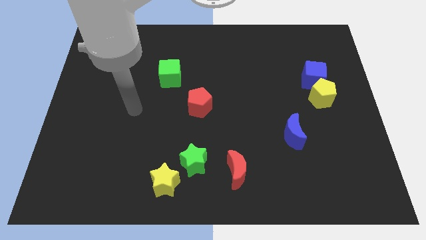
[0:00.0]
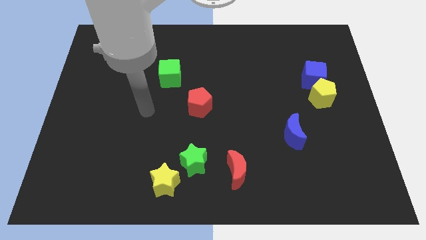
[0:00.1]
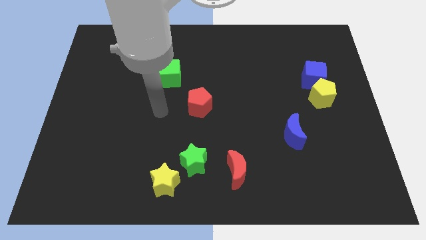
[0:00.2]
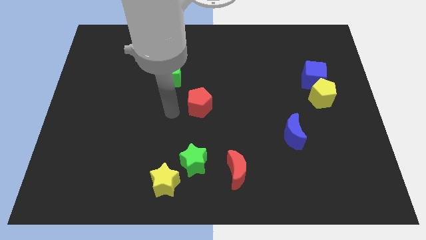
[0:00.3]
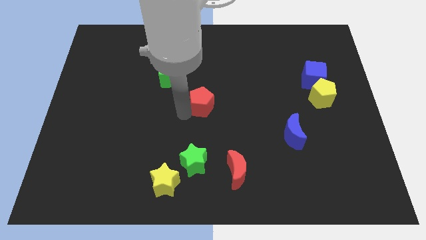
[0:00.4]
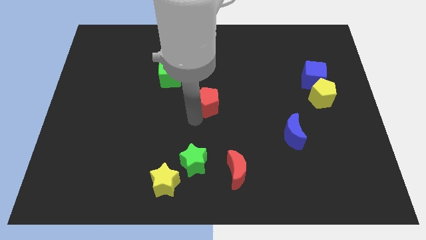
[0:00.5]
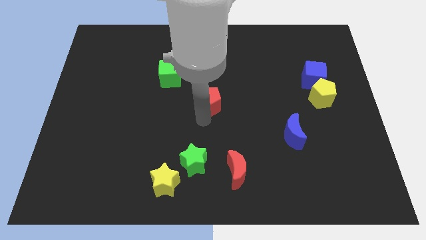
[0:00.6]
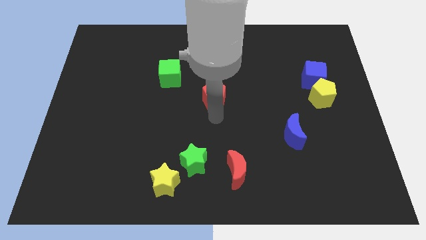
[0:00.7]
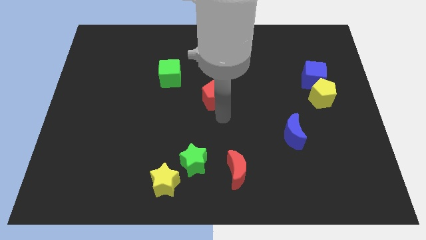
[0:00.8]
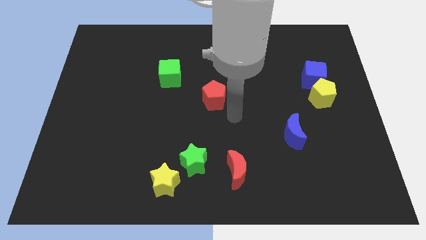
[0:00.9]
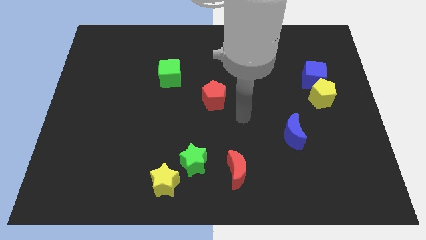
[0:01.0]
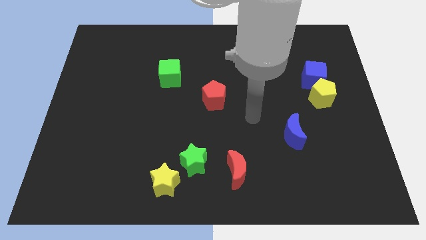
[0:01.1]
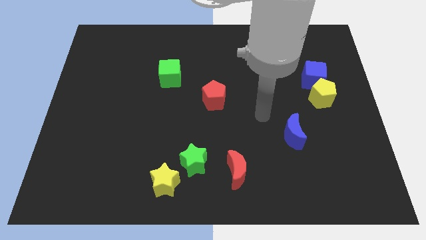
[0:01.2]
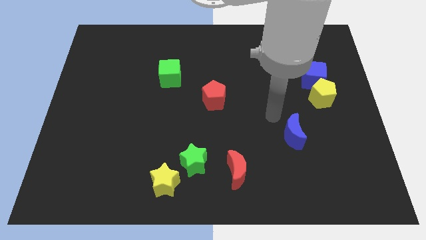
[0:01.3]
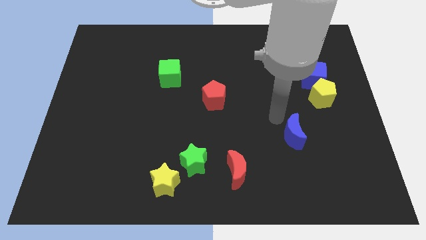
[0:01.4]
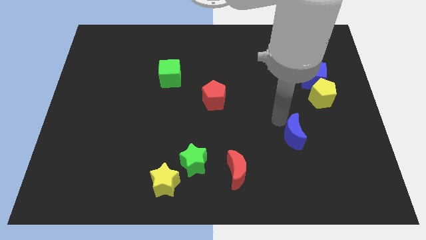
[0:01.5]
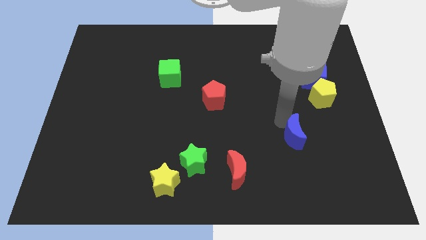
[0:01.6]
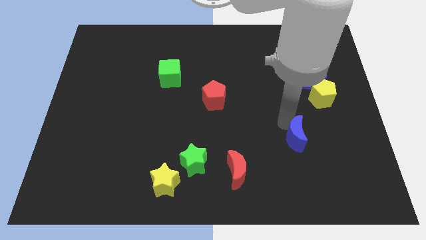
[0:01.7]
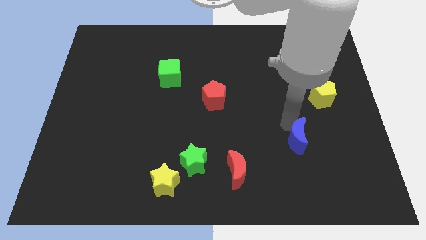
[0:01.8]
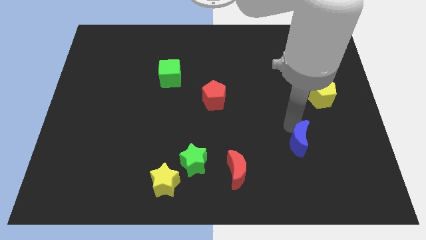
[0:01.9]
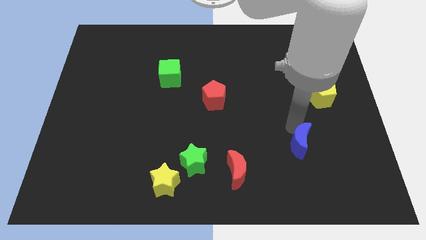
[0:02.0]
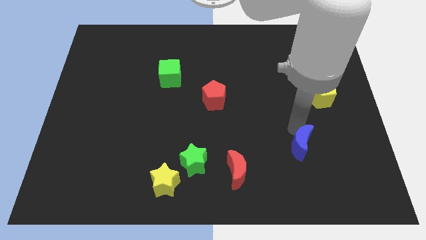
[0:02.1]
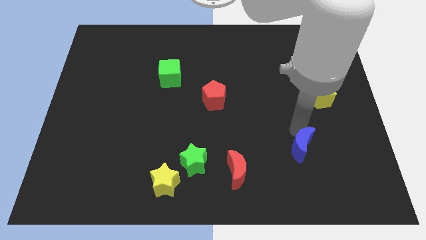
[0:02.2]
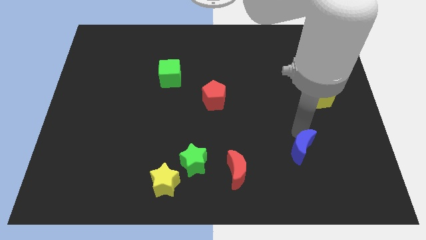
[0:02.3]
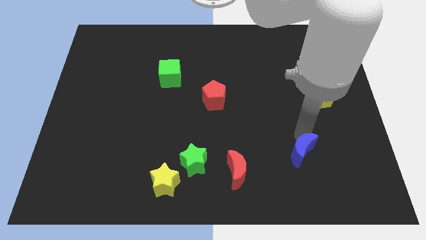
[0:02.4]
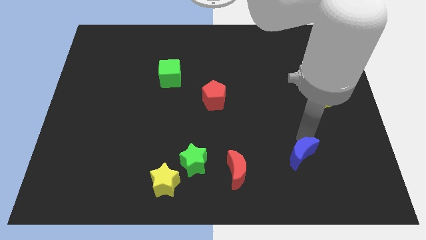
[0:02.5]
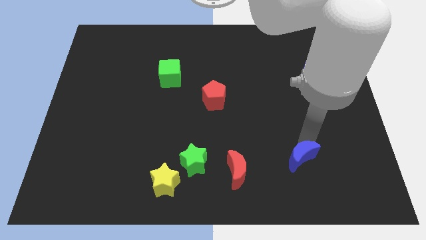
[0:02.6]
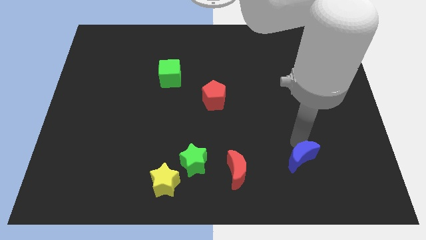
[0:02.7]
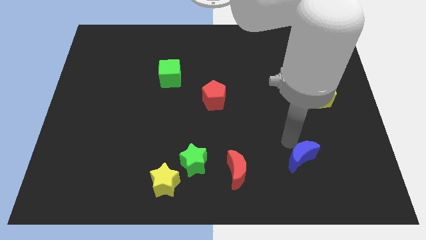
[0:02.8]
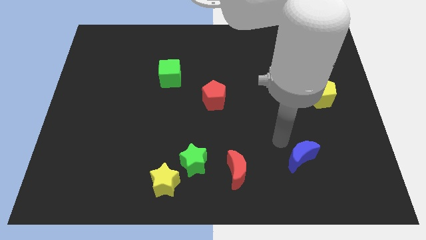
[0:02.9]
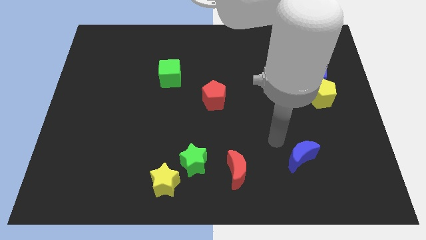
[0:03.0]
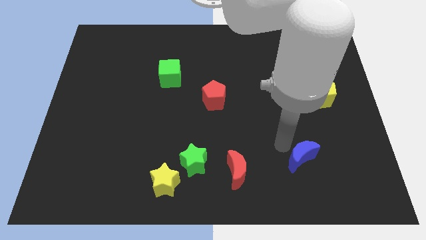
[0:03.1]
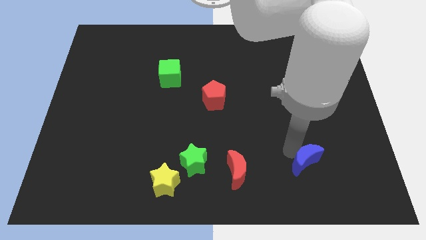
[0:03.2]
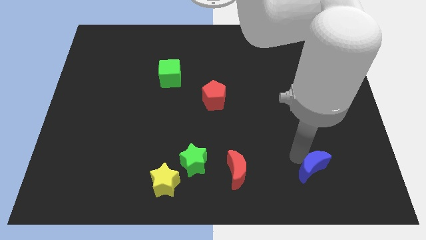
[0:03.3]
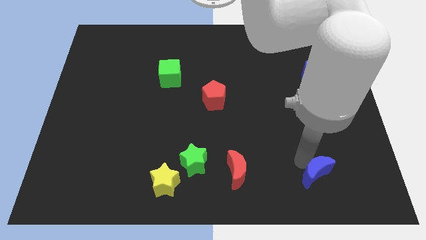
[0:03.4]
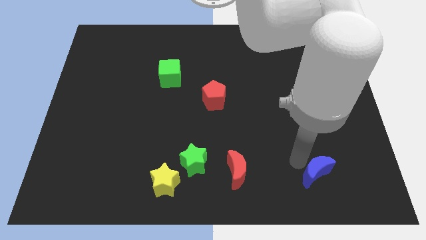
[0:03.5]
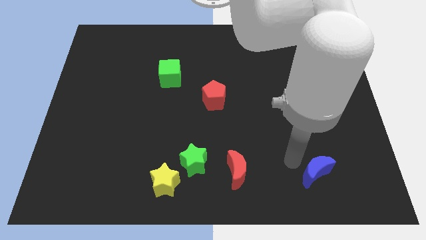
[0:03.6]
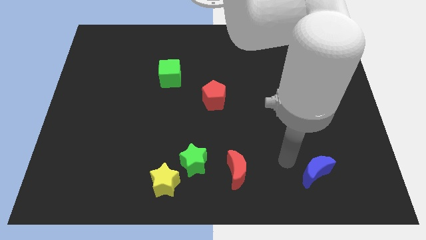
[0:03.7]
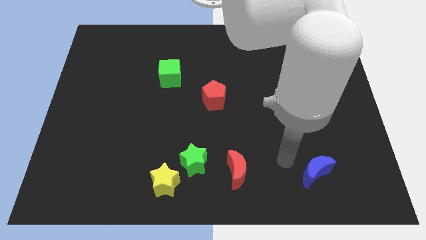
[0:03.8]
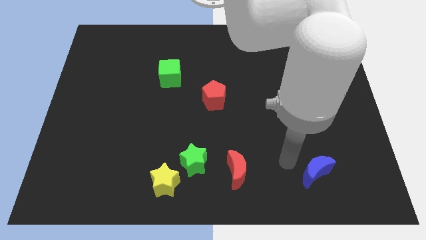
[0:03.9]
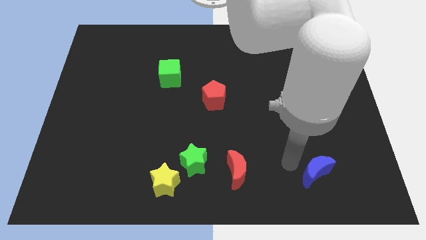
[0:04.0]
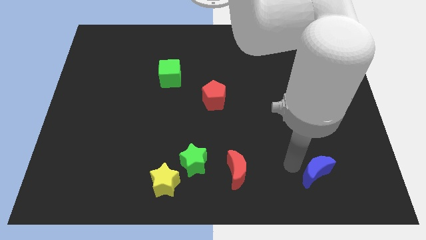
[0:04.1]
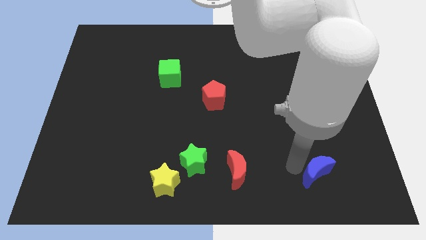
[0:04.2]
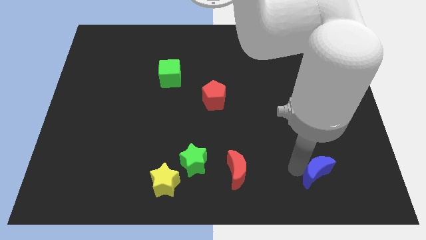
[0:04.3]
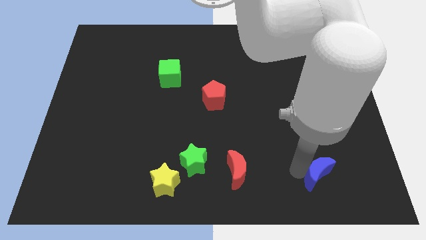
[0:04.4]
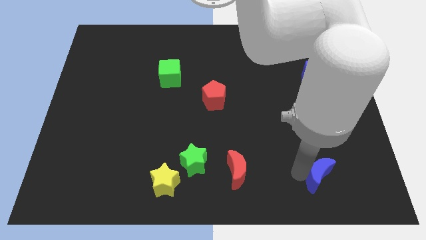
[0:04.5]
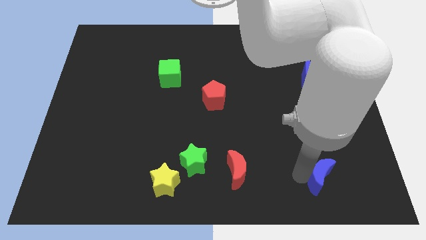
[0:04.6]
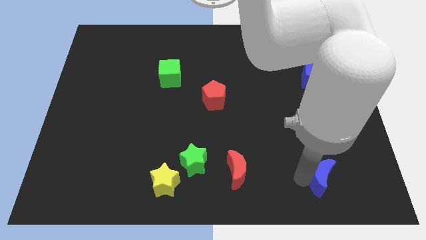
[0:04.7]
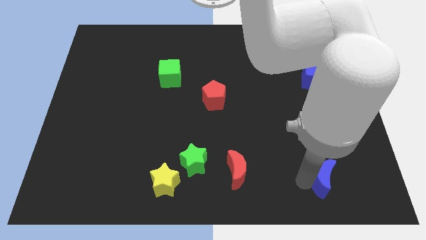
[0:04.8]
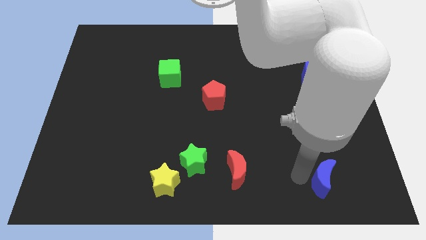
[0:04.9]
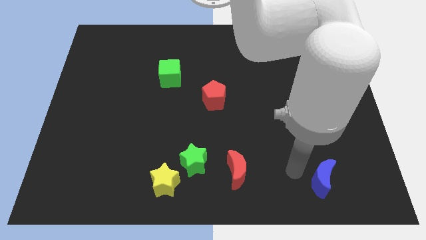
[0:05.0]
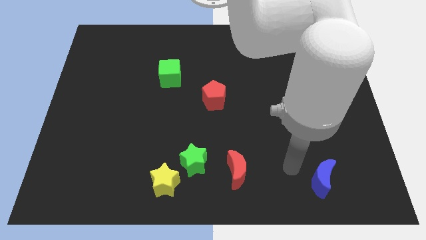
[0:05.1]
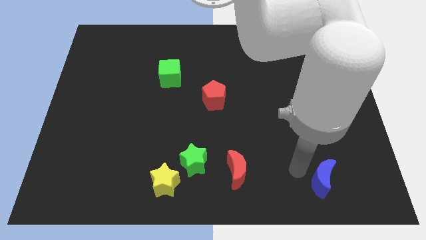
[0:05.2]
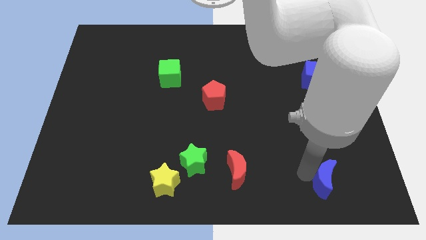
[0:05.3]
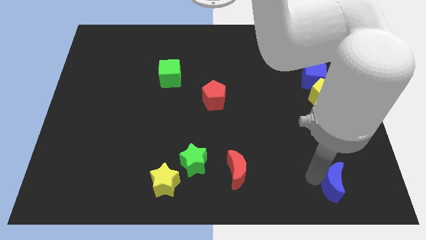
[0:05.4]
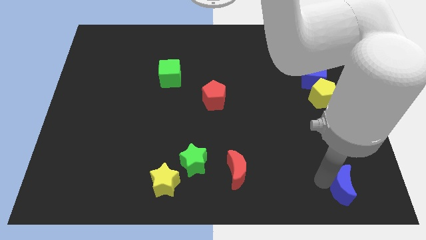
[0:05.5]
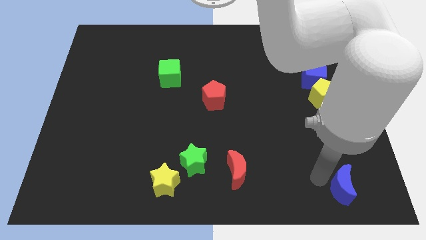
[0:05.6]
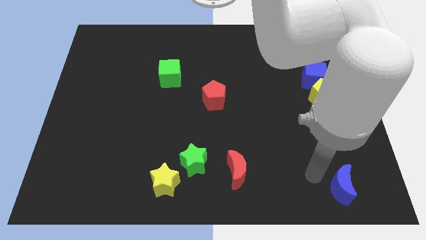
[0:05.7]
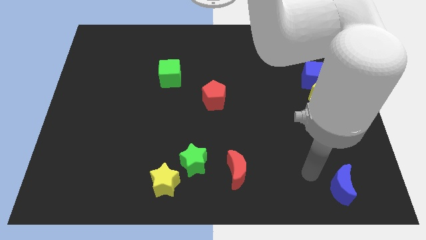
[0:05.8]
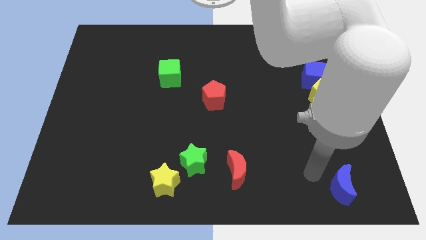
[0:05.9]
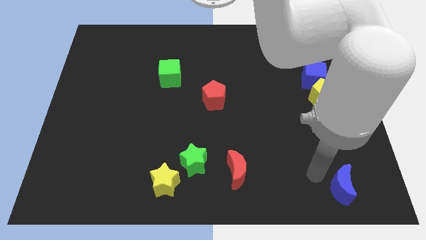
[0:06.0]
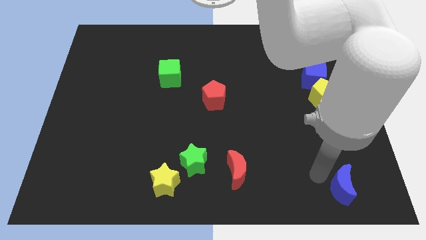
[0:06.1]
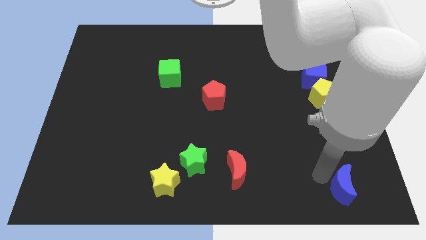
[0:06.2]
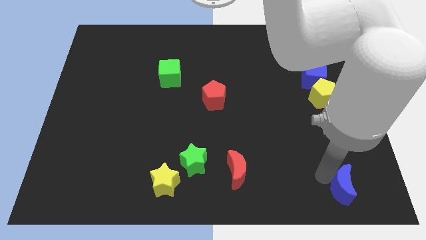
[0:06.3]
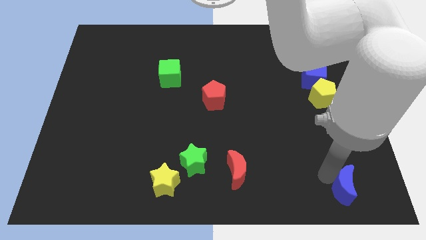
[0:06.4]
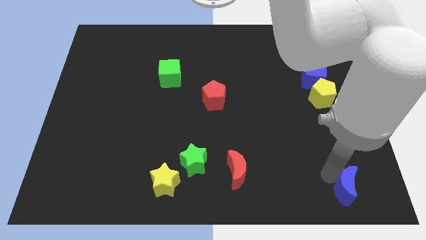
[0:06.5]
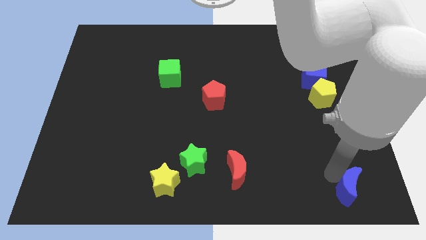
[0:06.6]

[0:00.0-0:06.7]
move the blue moon to the bottom right corner
